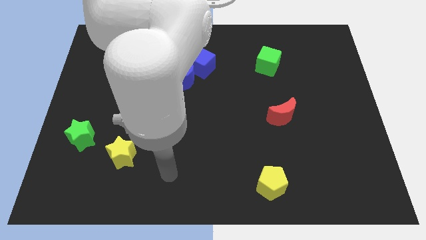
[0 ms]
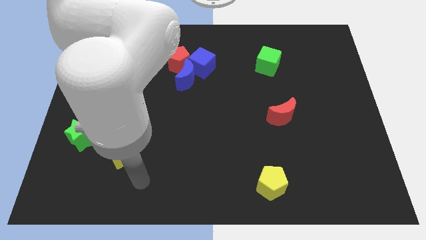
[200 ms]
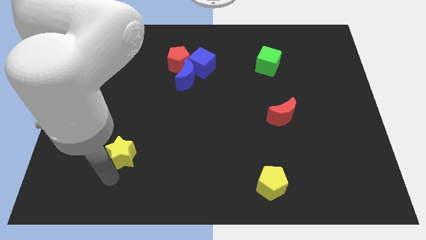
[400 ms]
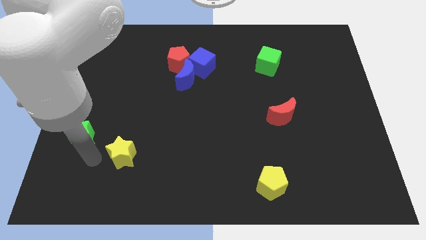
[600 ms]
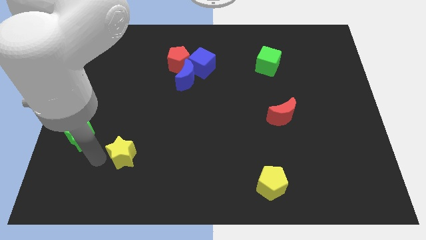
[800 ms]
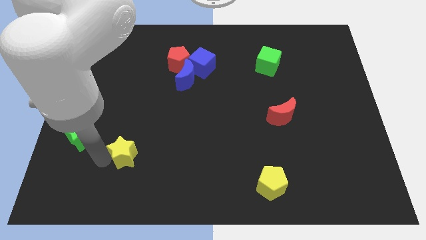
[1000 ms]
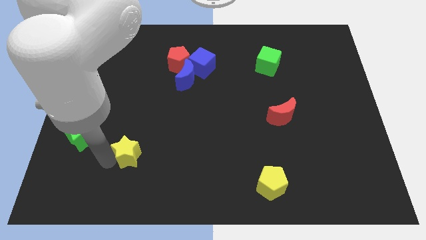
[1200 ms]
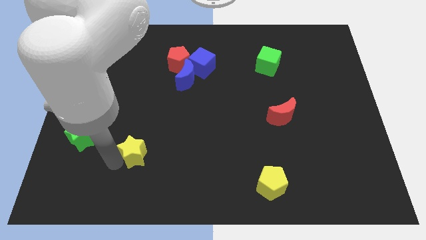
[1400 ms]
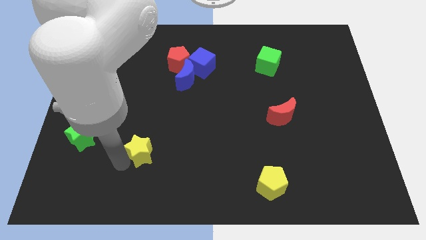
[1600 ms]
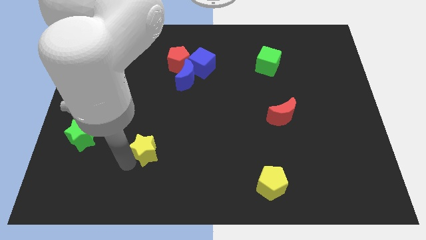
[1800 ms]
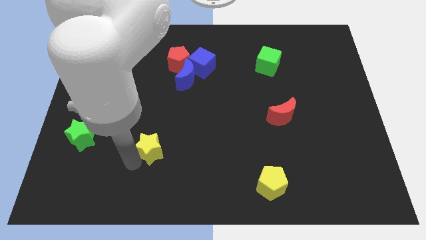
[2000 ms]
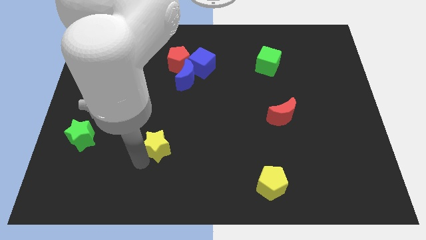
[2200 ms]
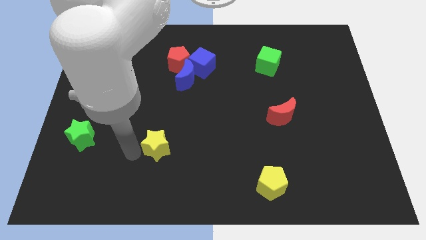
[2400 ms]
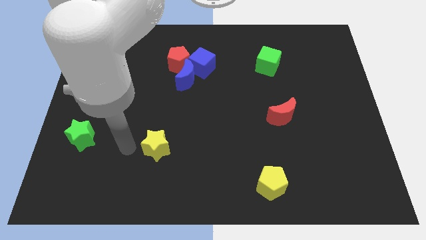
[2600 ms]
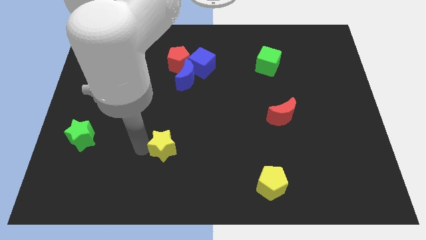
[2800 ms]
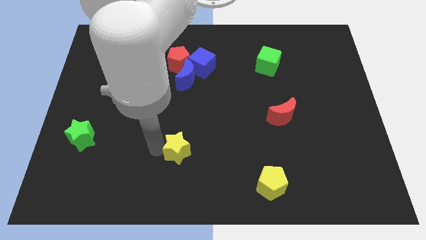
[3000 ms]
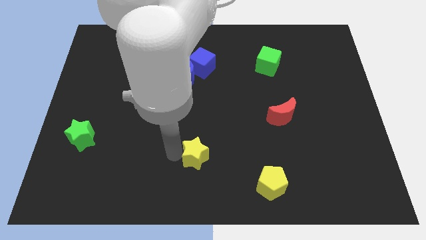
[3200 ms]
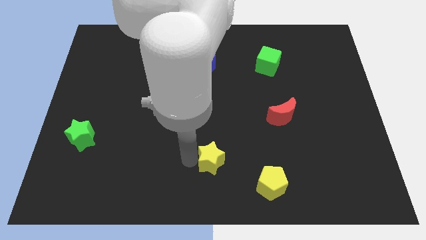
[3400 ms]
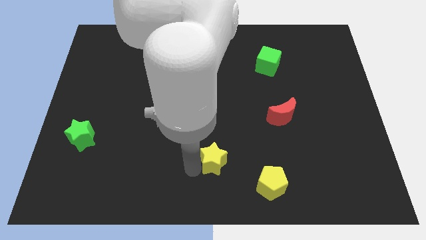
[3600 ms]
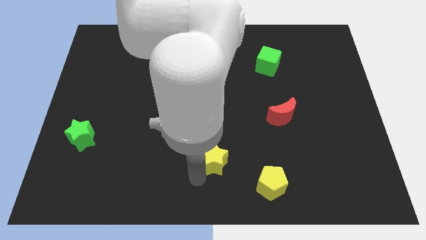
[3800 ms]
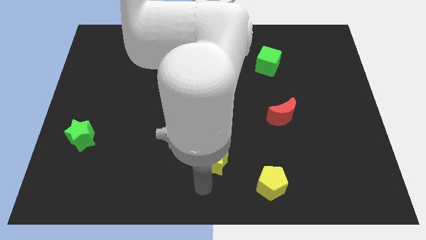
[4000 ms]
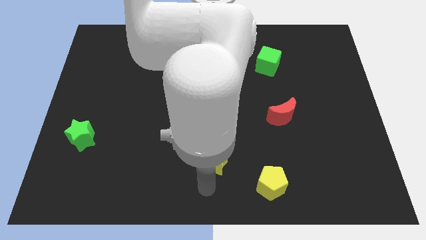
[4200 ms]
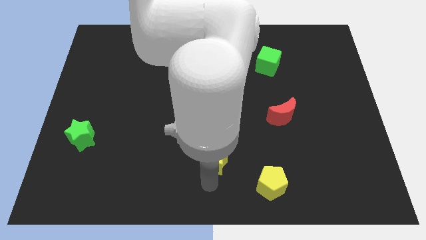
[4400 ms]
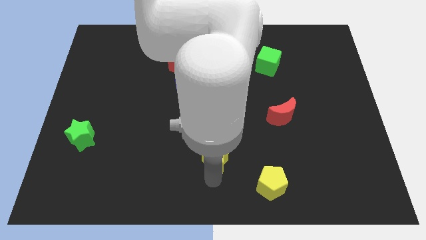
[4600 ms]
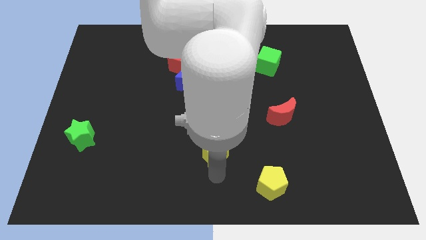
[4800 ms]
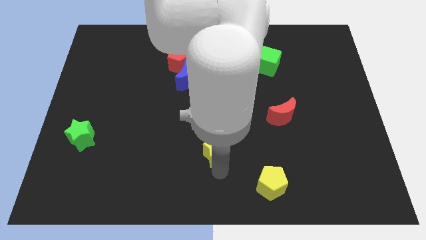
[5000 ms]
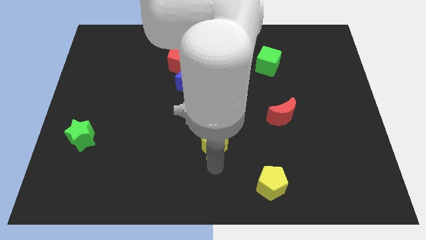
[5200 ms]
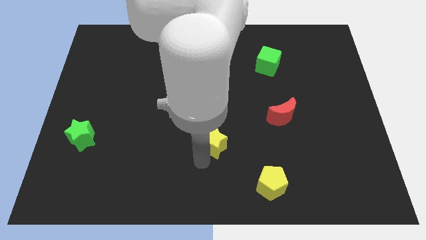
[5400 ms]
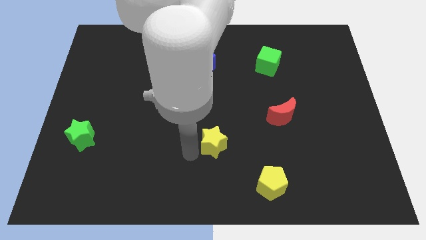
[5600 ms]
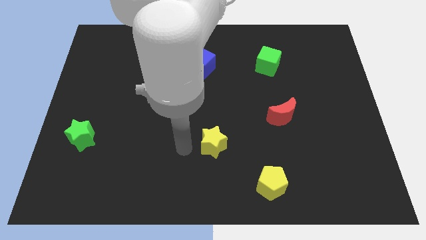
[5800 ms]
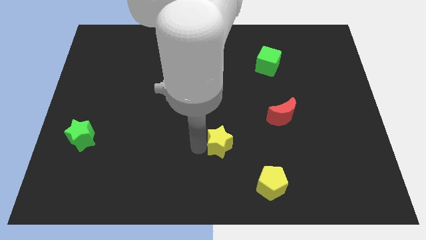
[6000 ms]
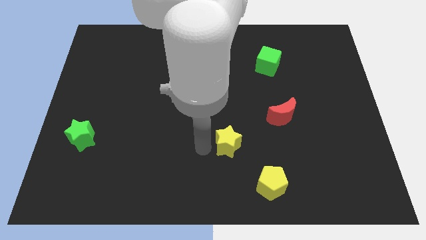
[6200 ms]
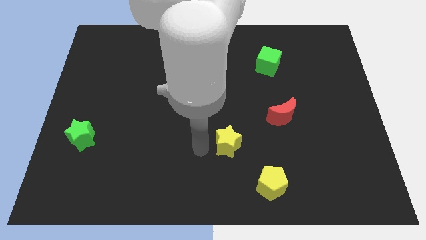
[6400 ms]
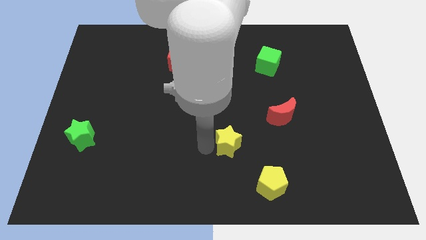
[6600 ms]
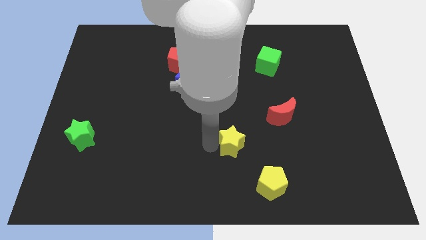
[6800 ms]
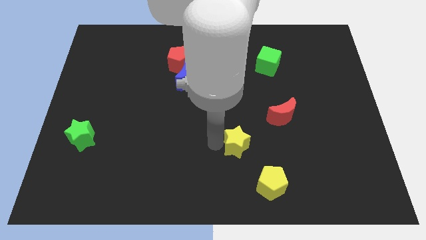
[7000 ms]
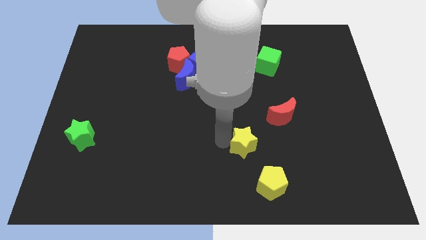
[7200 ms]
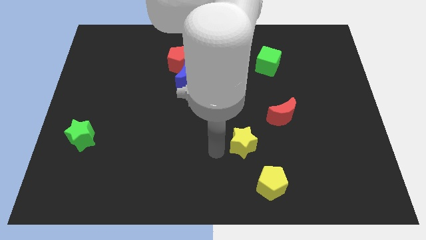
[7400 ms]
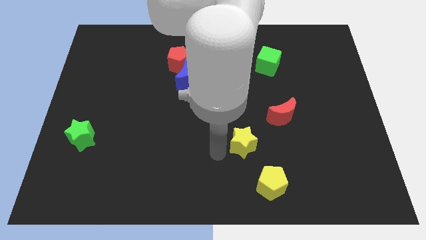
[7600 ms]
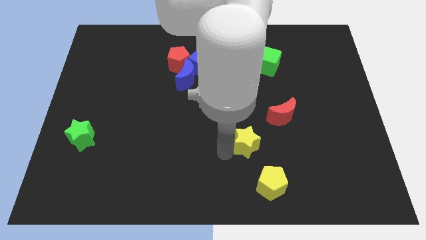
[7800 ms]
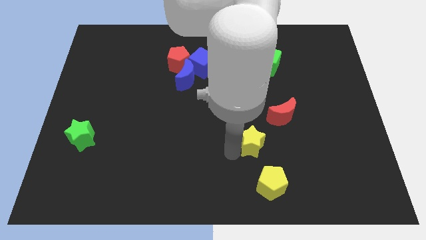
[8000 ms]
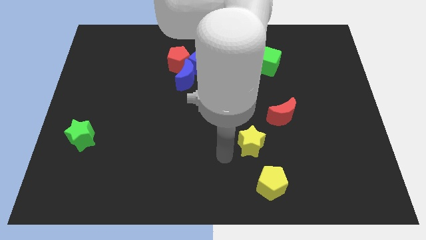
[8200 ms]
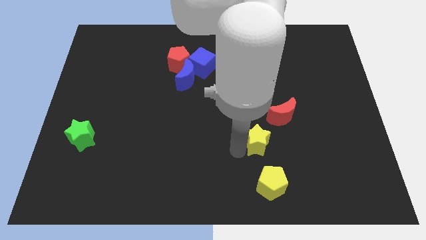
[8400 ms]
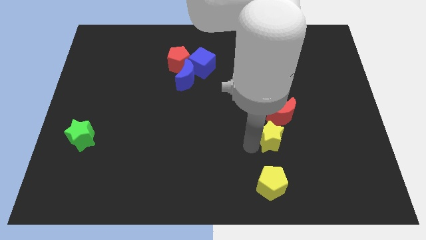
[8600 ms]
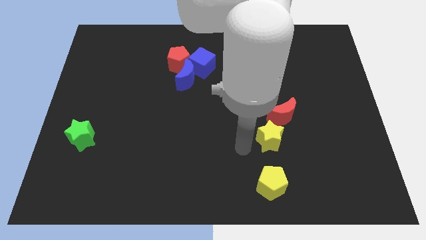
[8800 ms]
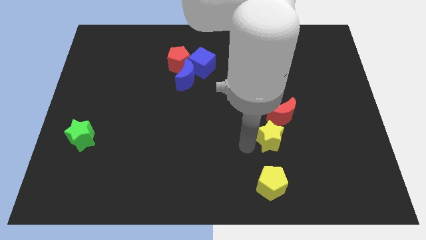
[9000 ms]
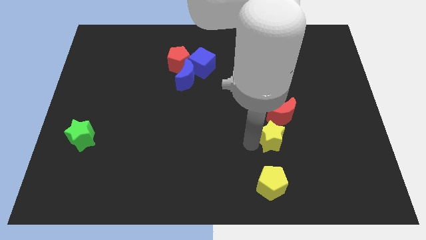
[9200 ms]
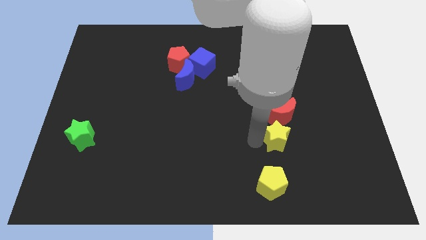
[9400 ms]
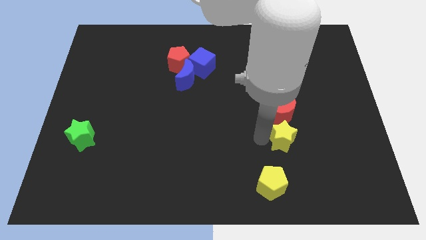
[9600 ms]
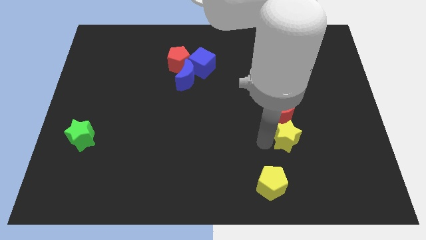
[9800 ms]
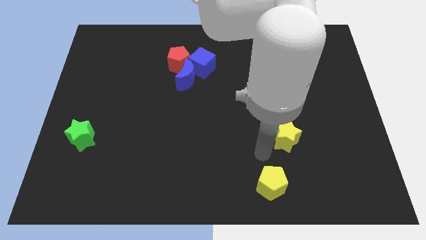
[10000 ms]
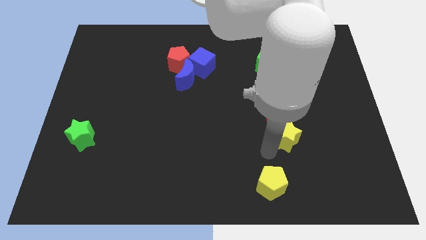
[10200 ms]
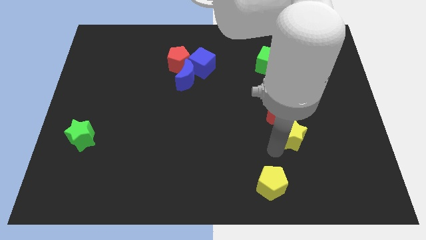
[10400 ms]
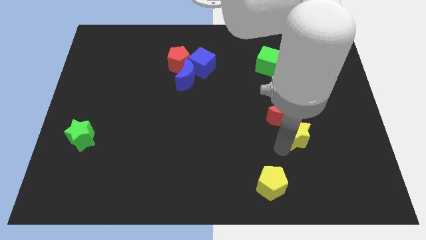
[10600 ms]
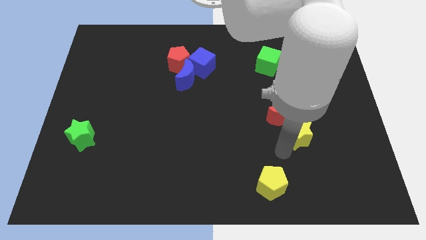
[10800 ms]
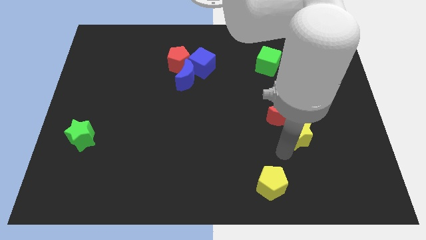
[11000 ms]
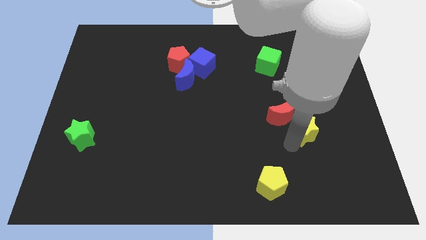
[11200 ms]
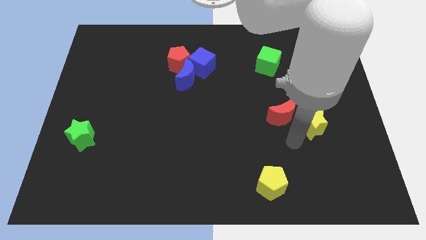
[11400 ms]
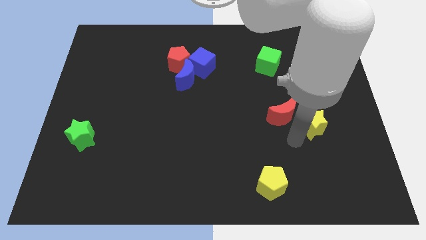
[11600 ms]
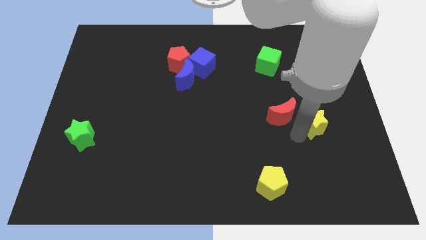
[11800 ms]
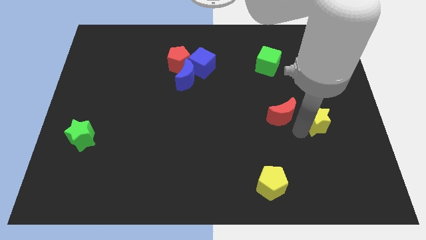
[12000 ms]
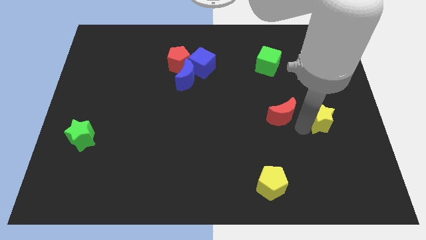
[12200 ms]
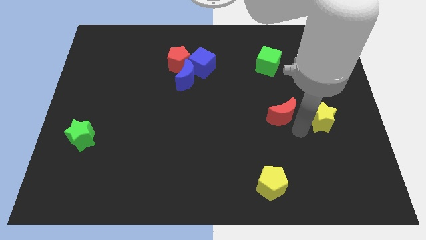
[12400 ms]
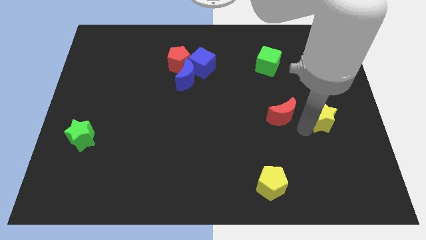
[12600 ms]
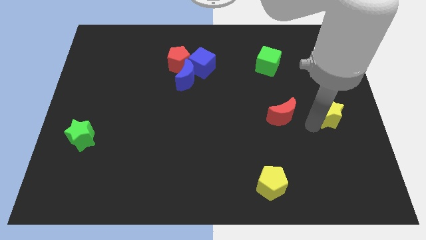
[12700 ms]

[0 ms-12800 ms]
push the yellow star to the right side

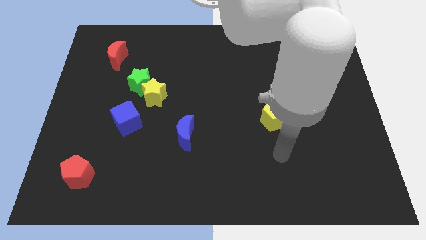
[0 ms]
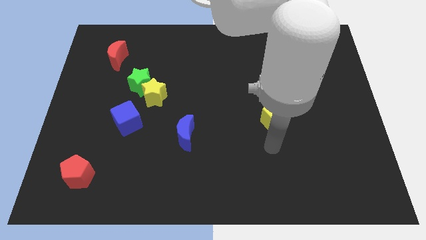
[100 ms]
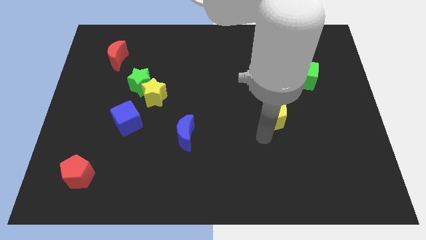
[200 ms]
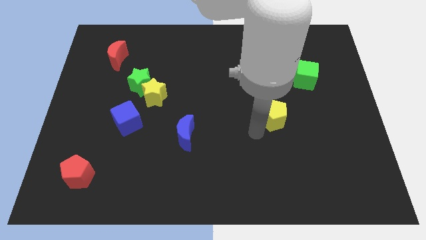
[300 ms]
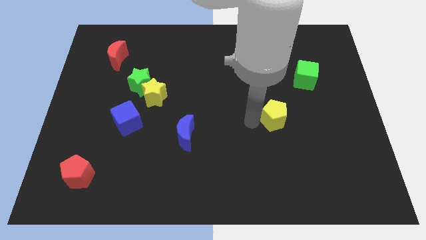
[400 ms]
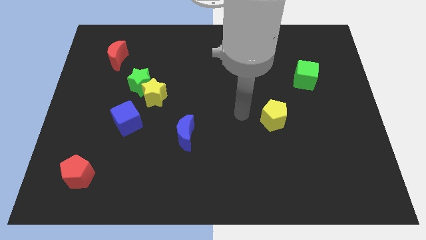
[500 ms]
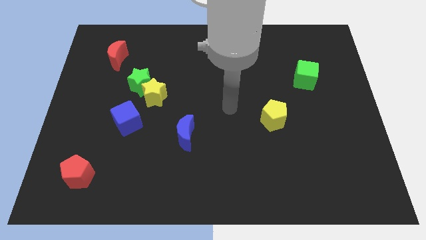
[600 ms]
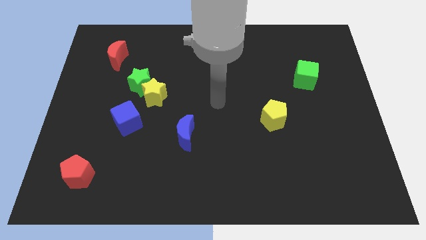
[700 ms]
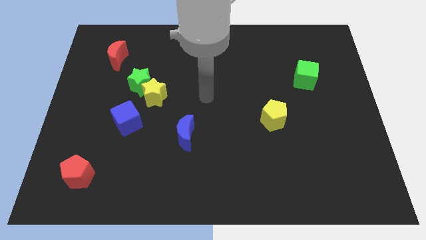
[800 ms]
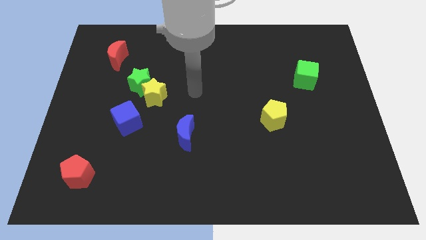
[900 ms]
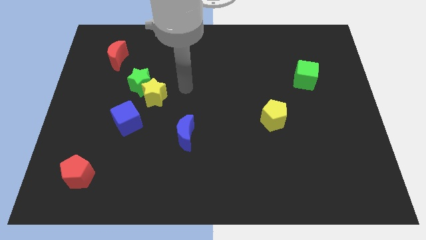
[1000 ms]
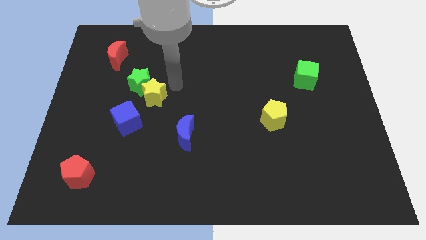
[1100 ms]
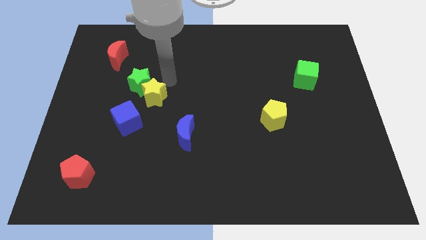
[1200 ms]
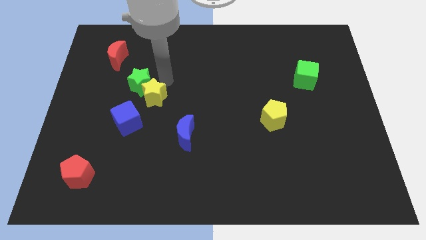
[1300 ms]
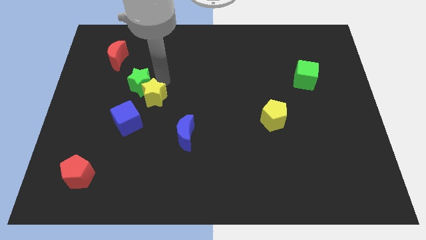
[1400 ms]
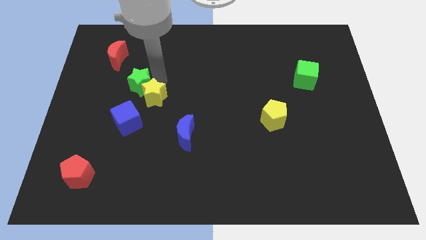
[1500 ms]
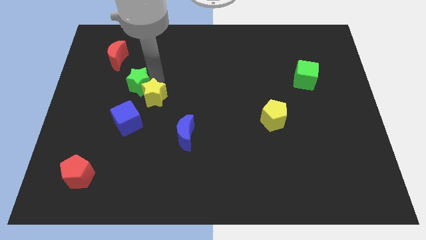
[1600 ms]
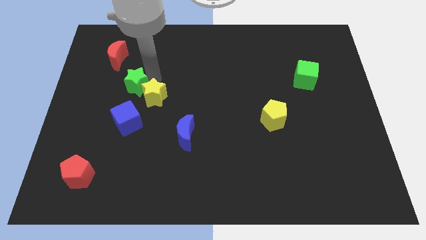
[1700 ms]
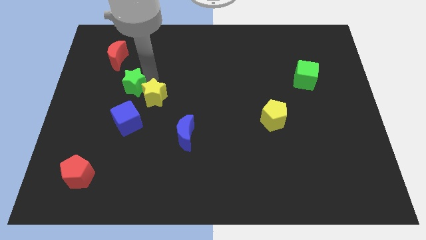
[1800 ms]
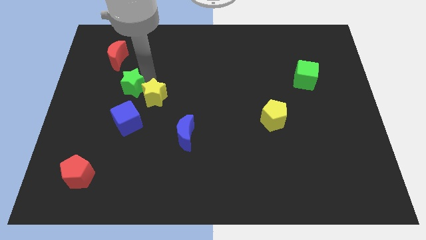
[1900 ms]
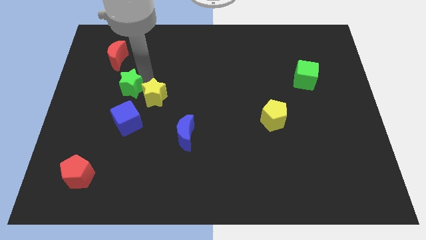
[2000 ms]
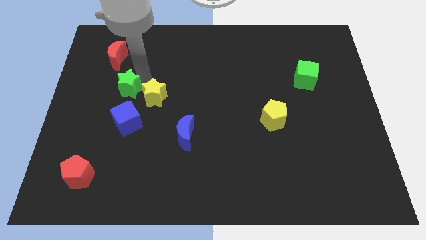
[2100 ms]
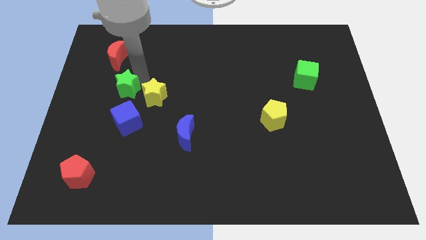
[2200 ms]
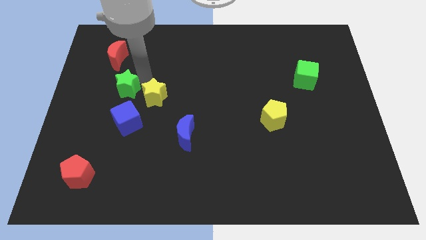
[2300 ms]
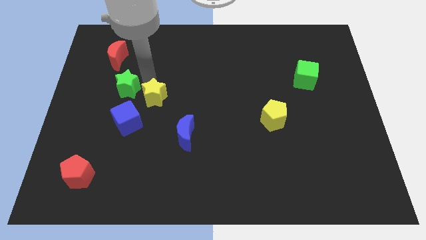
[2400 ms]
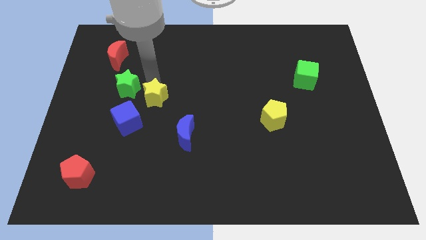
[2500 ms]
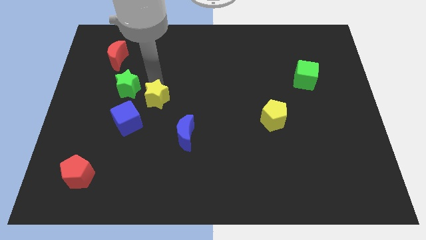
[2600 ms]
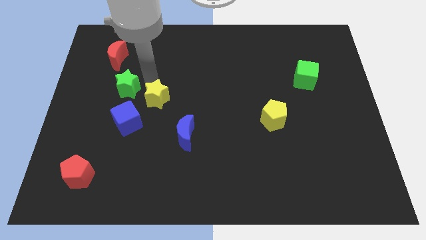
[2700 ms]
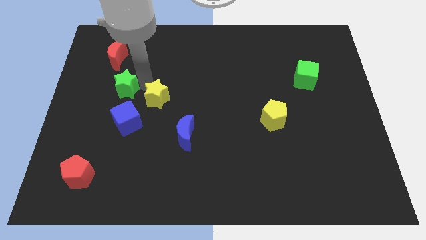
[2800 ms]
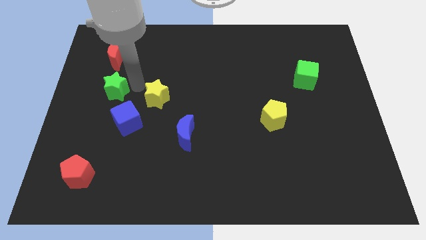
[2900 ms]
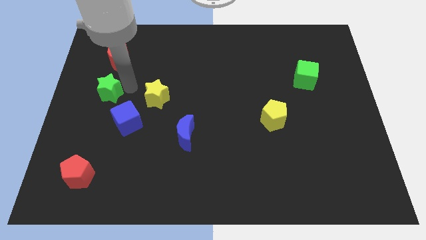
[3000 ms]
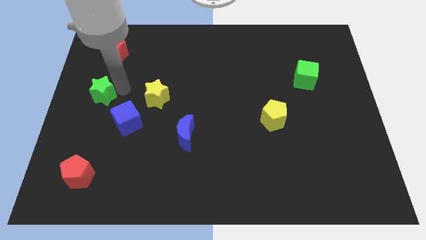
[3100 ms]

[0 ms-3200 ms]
push the green star to the left side
